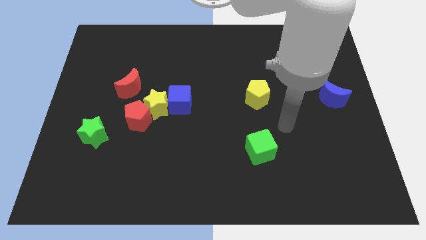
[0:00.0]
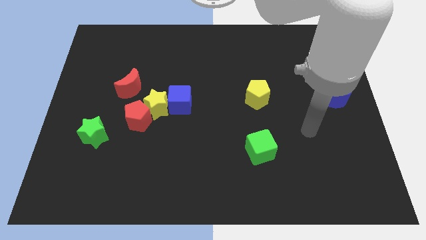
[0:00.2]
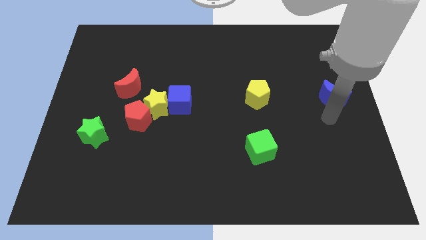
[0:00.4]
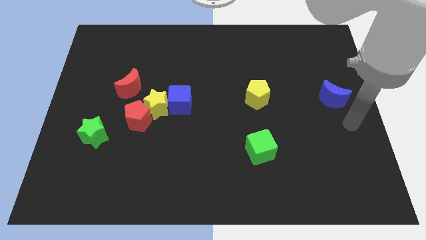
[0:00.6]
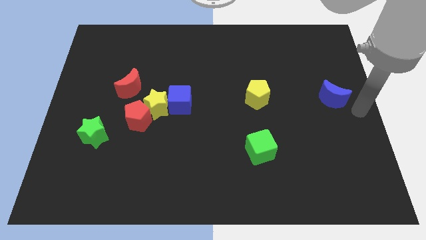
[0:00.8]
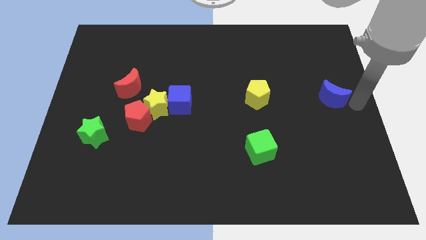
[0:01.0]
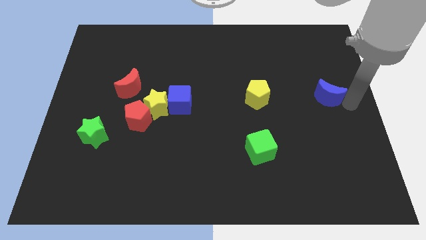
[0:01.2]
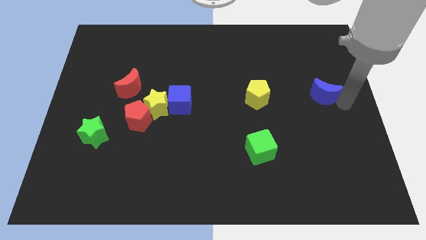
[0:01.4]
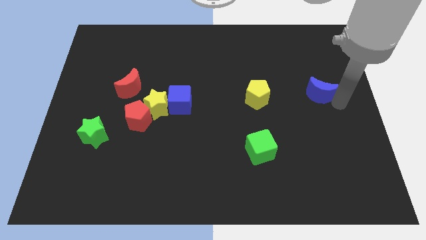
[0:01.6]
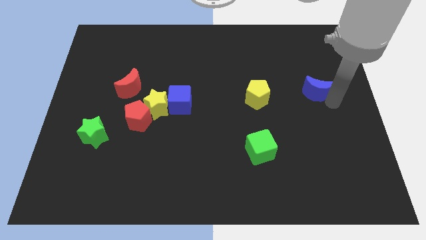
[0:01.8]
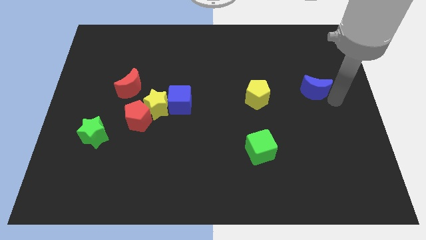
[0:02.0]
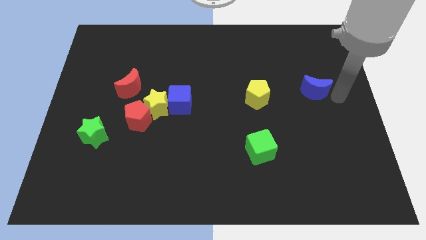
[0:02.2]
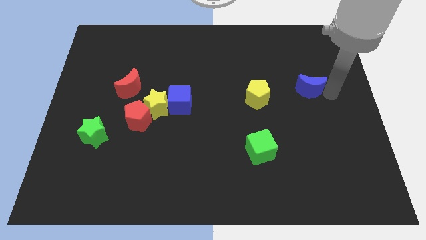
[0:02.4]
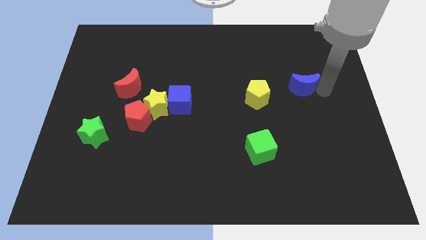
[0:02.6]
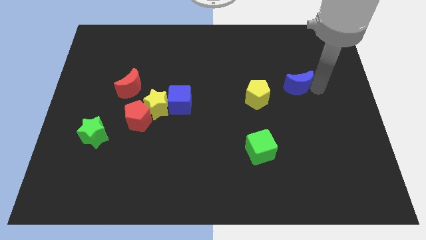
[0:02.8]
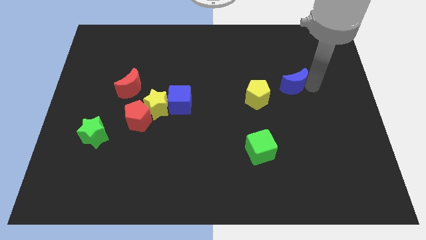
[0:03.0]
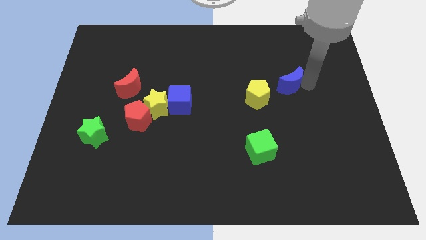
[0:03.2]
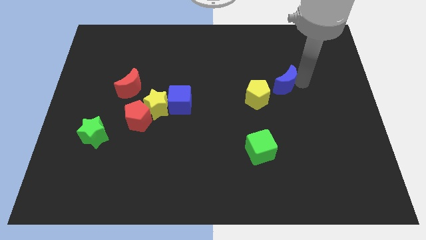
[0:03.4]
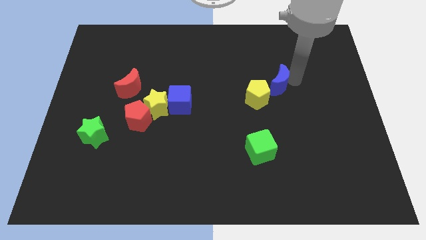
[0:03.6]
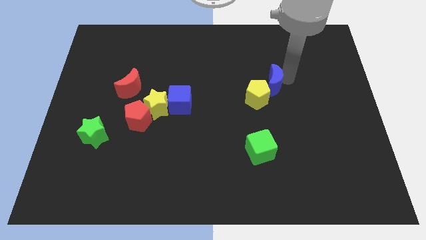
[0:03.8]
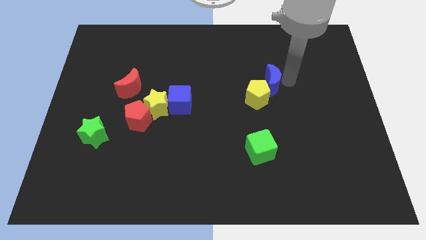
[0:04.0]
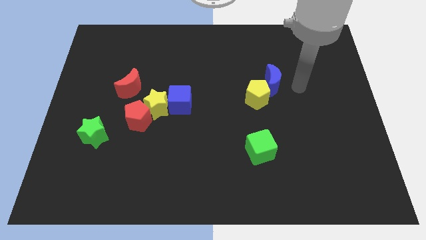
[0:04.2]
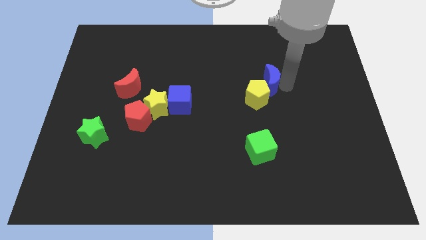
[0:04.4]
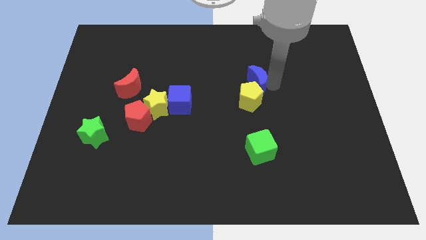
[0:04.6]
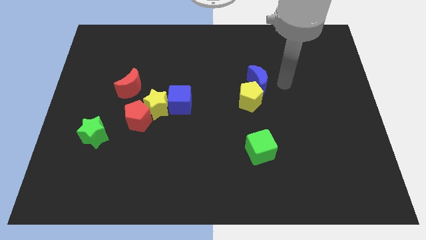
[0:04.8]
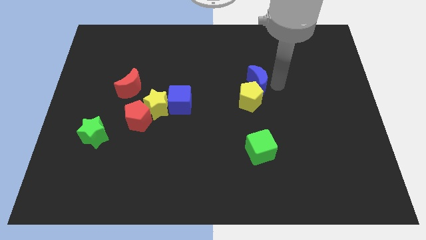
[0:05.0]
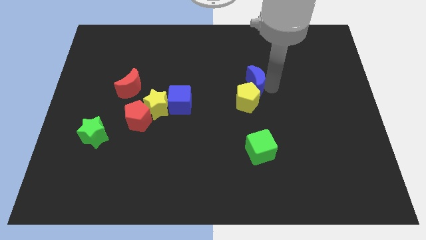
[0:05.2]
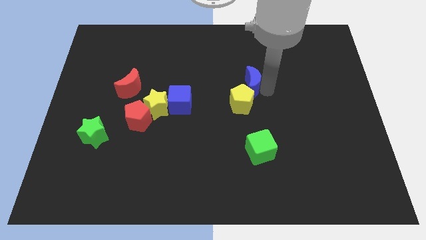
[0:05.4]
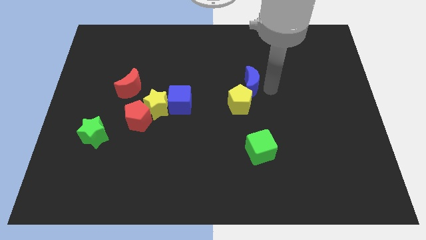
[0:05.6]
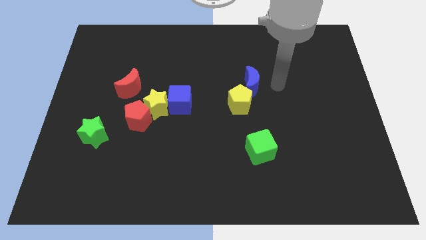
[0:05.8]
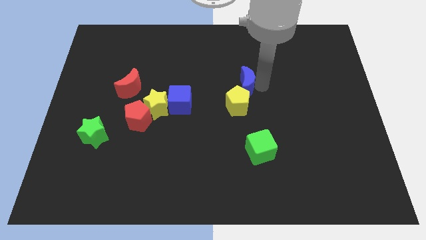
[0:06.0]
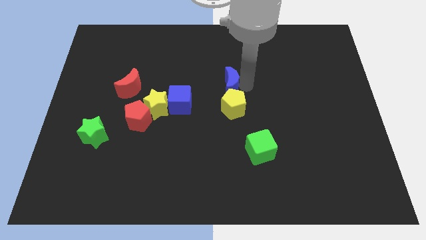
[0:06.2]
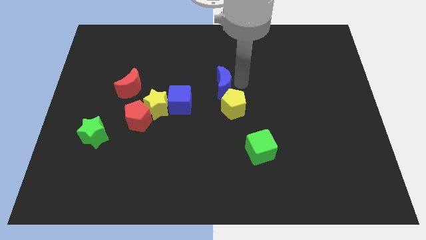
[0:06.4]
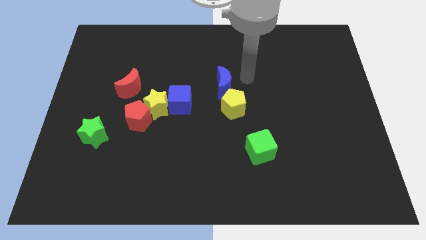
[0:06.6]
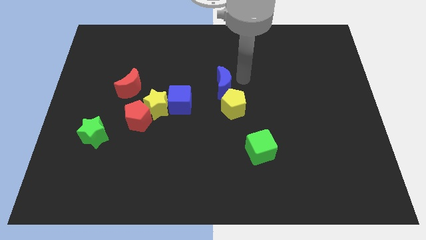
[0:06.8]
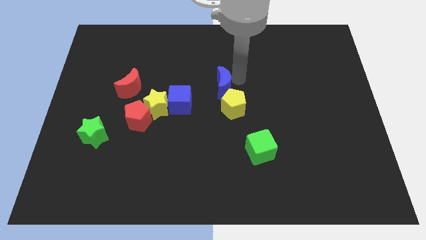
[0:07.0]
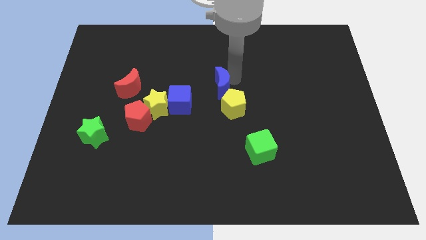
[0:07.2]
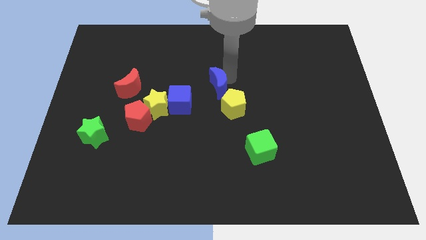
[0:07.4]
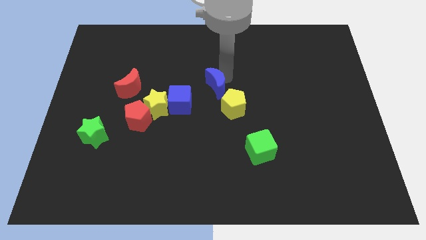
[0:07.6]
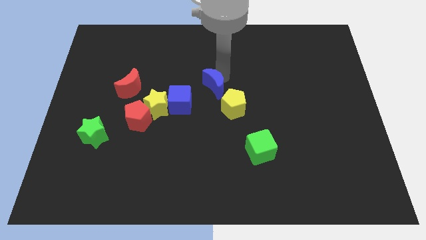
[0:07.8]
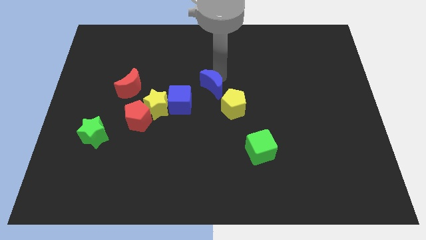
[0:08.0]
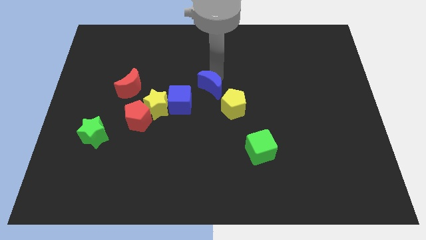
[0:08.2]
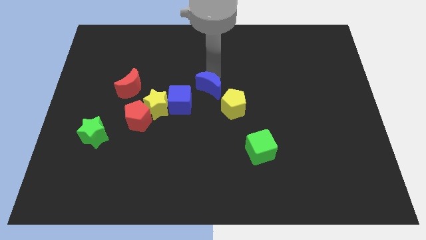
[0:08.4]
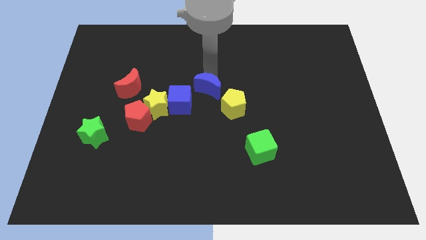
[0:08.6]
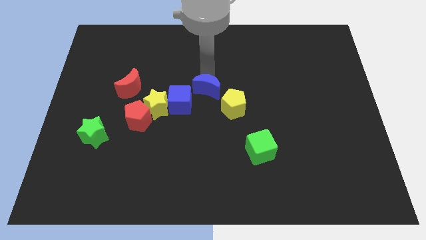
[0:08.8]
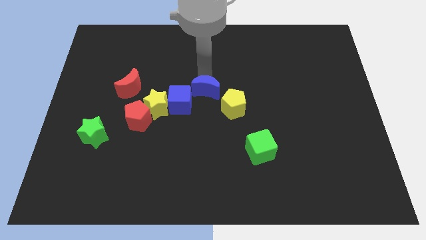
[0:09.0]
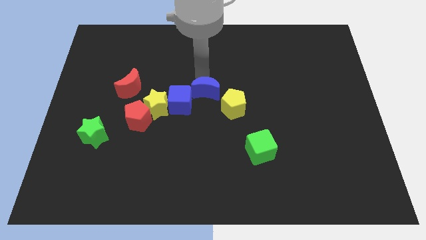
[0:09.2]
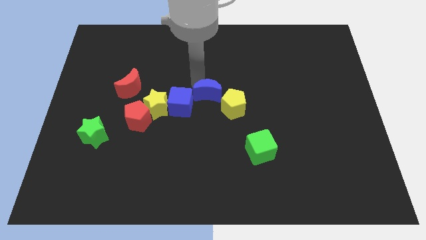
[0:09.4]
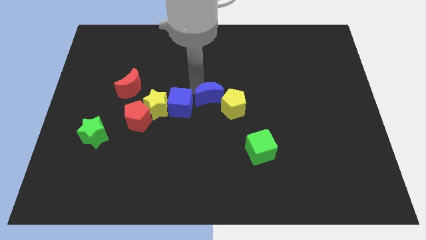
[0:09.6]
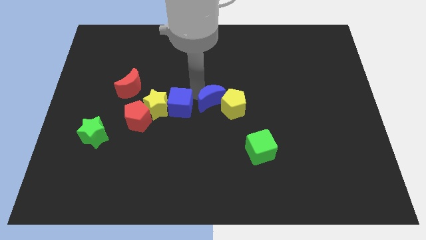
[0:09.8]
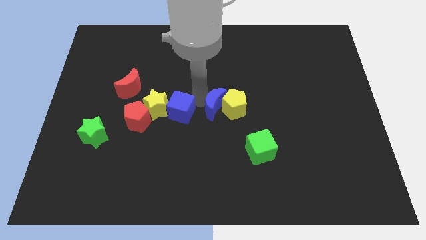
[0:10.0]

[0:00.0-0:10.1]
push the blue moon to the top left of the yellow pentagon

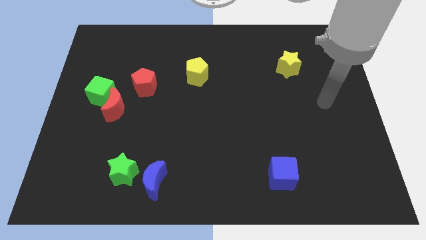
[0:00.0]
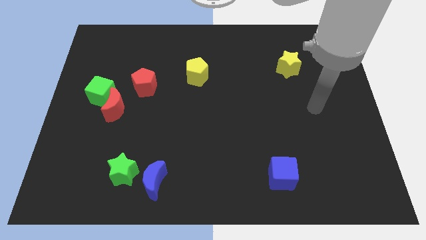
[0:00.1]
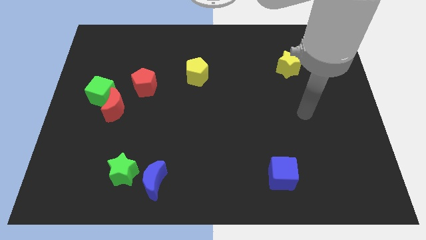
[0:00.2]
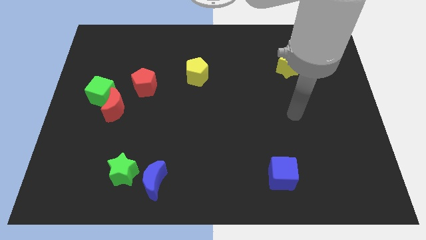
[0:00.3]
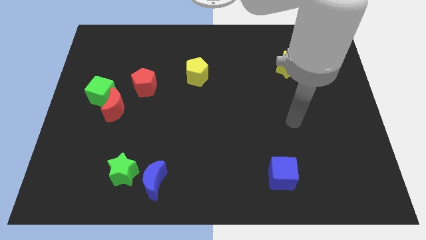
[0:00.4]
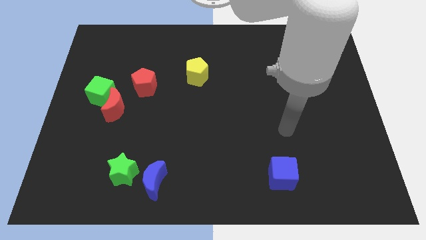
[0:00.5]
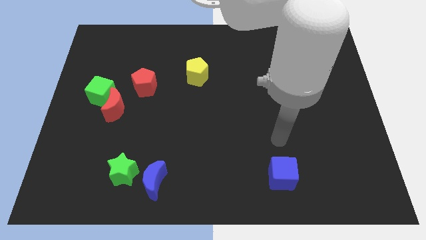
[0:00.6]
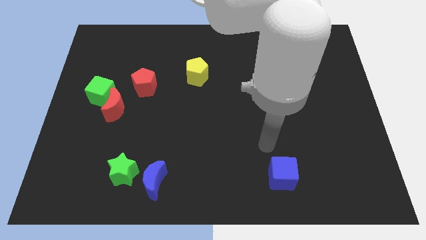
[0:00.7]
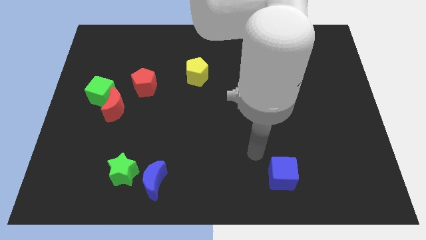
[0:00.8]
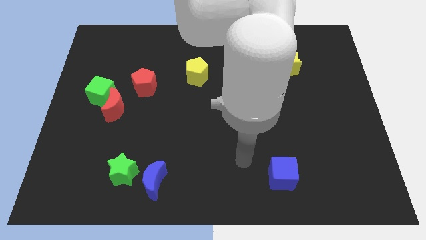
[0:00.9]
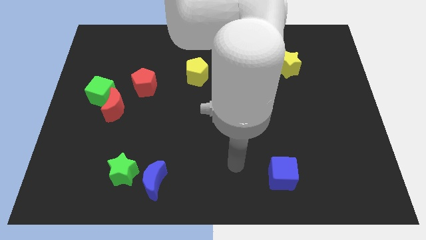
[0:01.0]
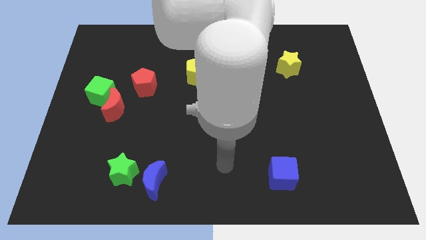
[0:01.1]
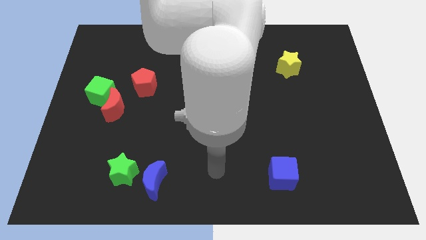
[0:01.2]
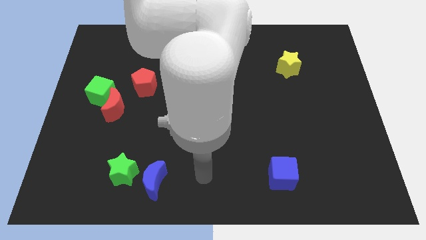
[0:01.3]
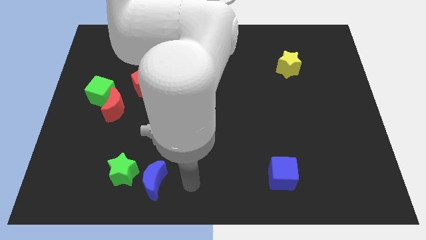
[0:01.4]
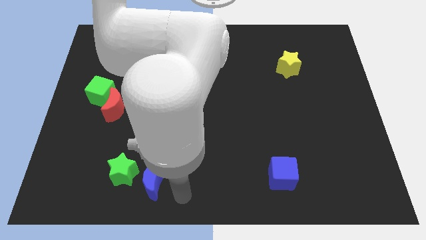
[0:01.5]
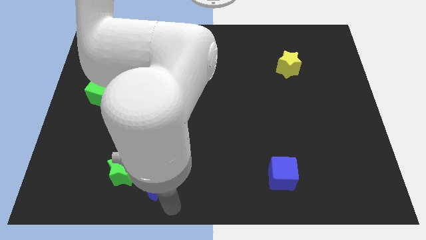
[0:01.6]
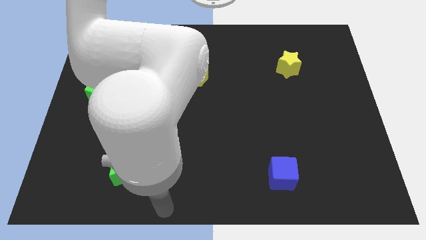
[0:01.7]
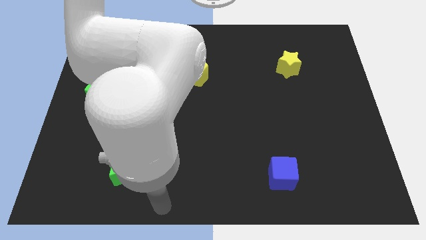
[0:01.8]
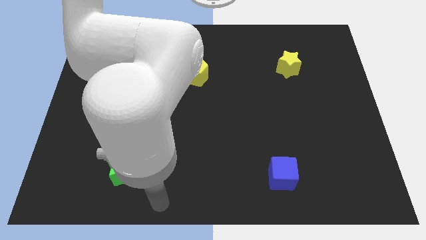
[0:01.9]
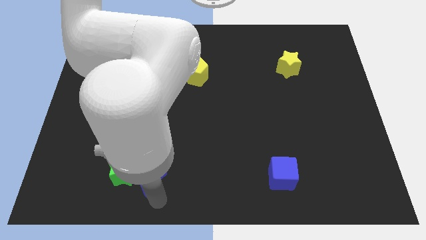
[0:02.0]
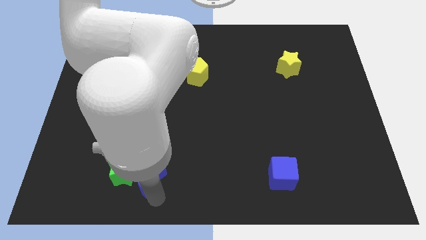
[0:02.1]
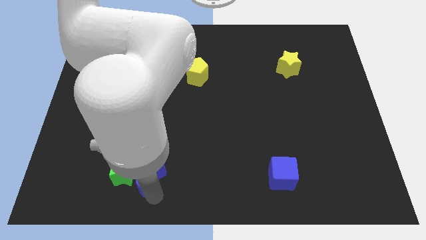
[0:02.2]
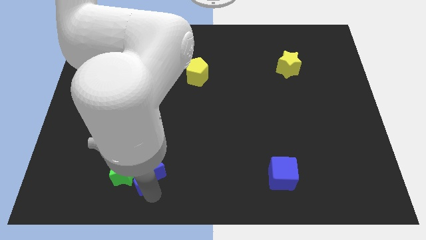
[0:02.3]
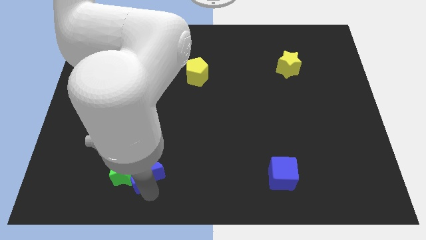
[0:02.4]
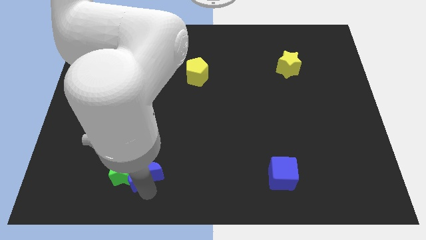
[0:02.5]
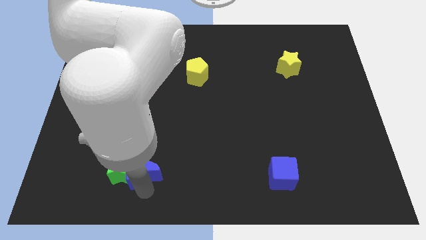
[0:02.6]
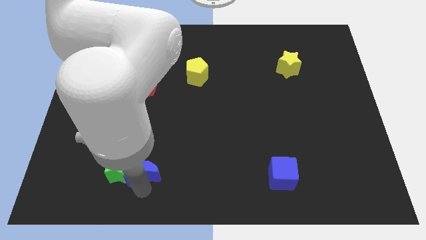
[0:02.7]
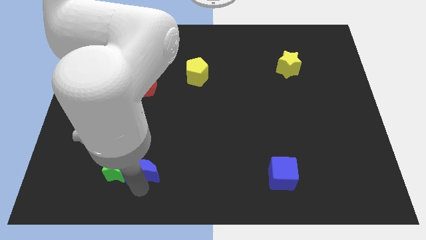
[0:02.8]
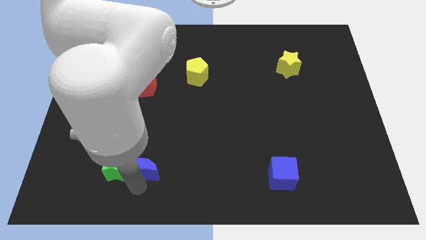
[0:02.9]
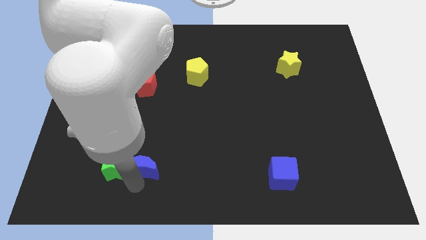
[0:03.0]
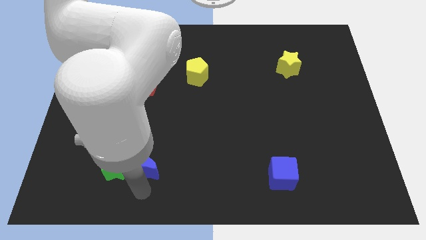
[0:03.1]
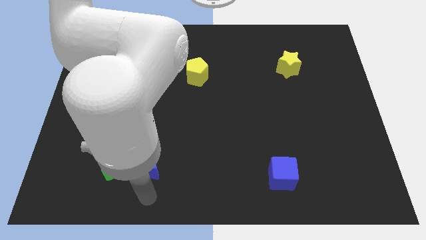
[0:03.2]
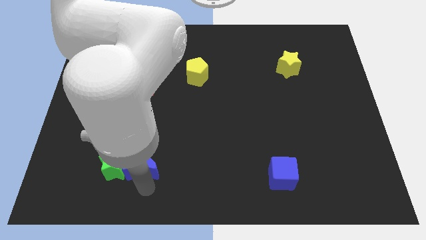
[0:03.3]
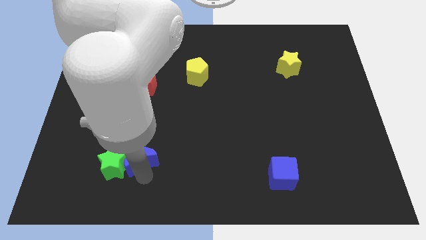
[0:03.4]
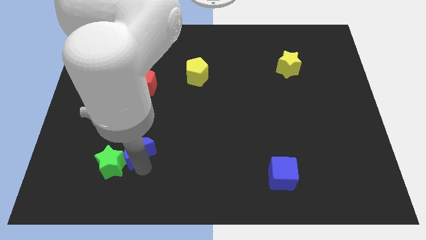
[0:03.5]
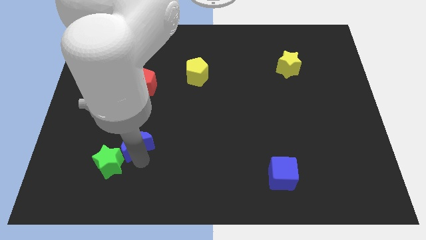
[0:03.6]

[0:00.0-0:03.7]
move the blue moon to the bottom right side of the red moon
